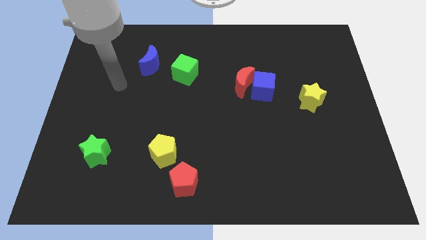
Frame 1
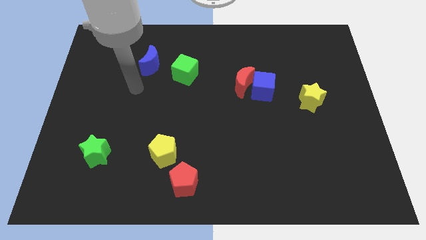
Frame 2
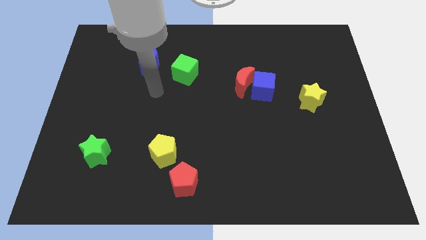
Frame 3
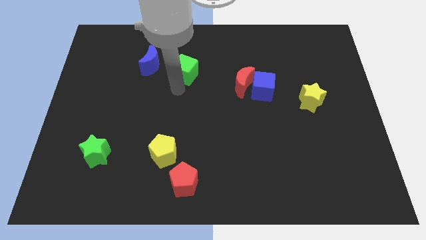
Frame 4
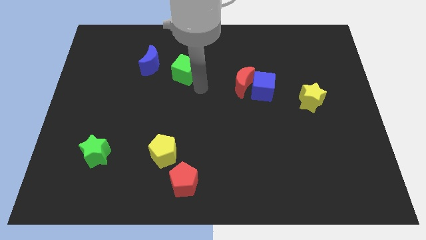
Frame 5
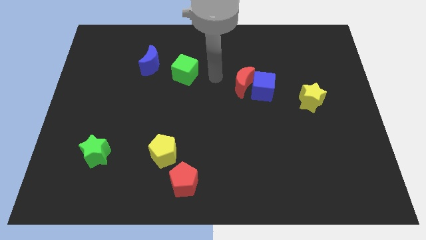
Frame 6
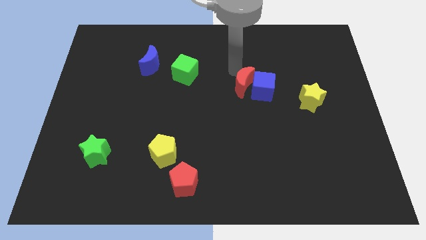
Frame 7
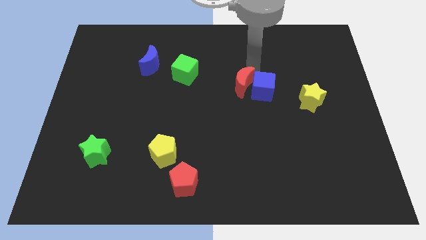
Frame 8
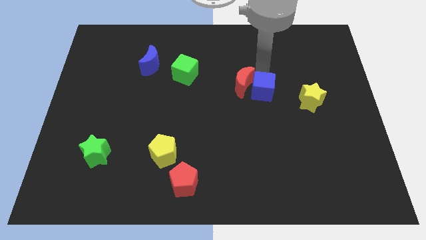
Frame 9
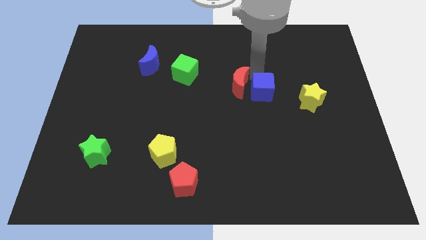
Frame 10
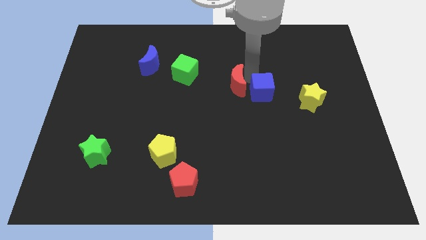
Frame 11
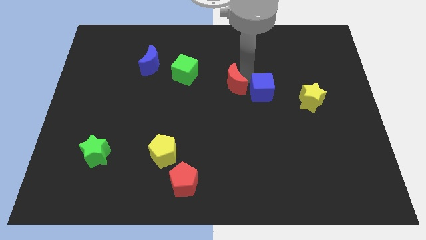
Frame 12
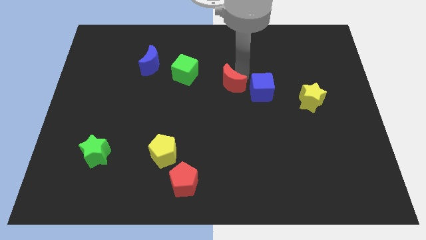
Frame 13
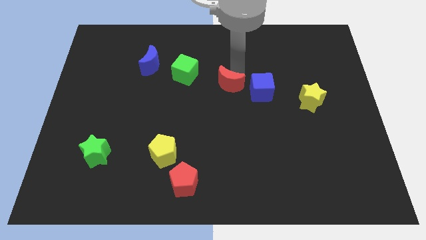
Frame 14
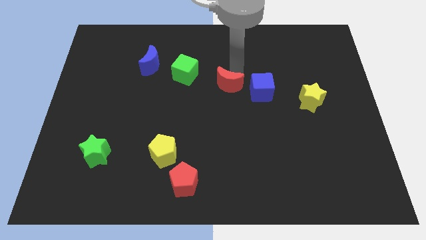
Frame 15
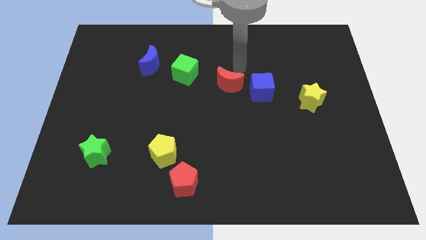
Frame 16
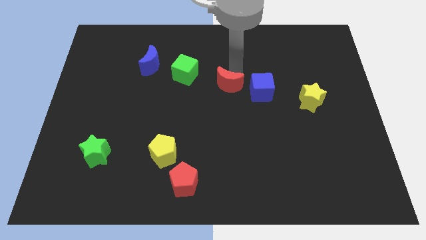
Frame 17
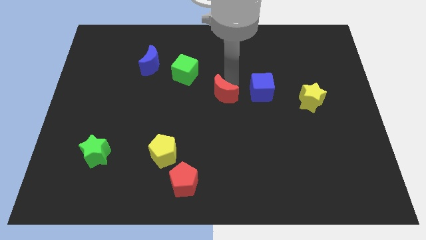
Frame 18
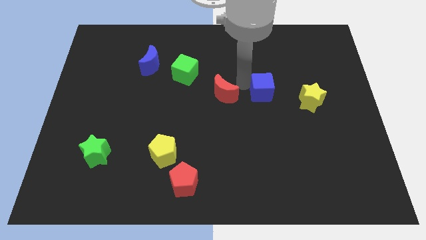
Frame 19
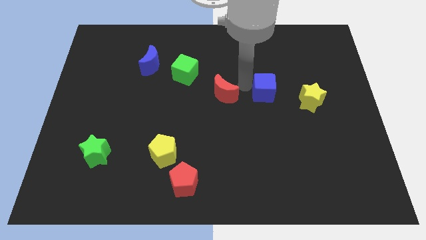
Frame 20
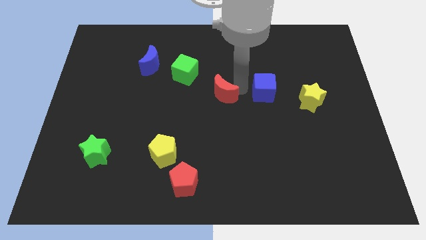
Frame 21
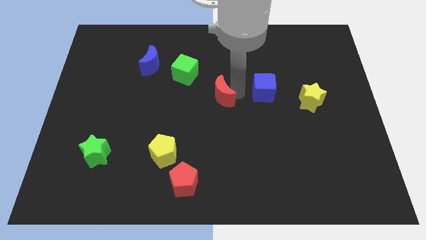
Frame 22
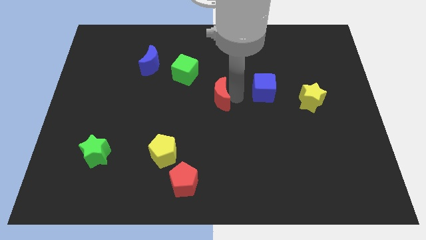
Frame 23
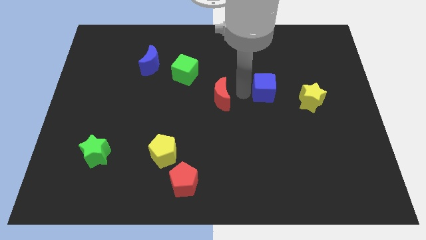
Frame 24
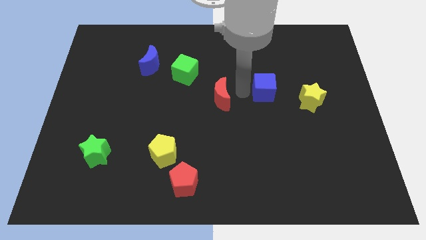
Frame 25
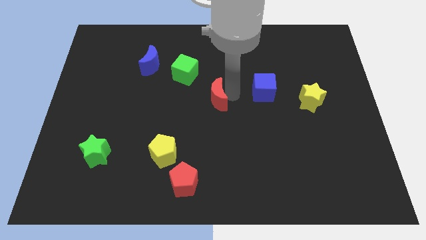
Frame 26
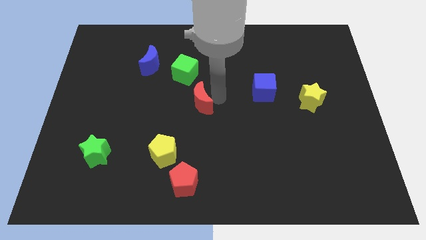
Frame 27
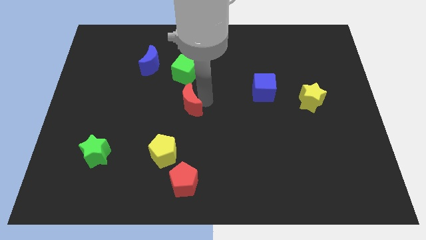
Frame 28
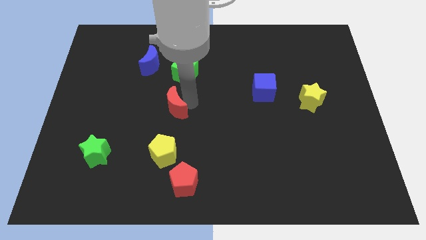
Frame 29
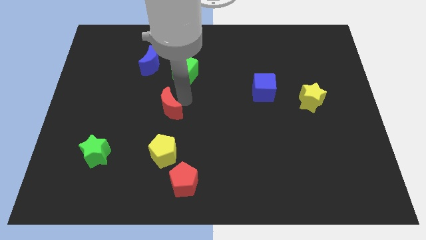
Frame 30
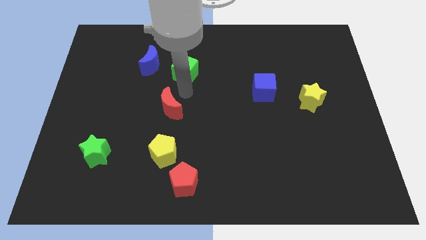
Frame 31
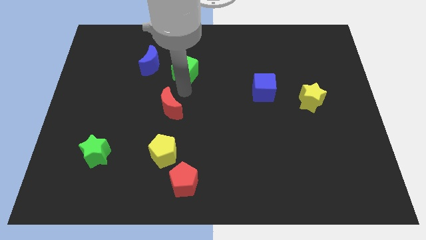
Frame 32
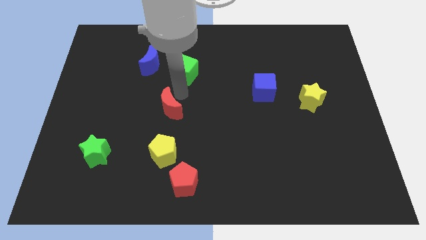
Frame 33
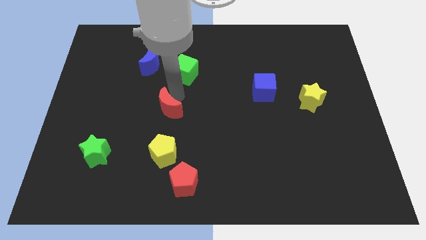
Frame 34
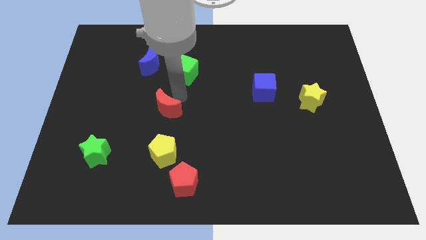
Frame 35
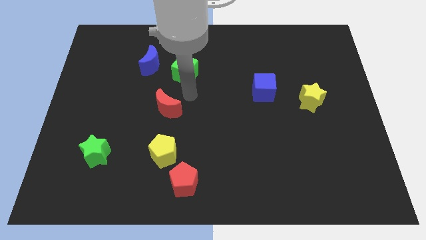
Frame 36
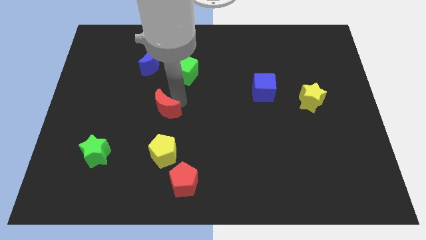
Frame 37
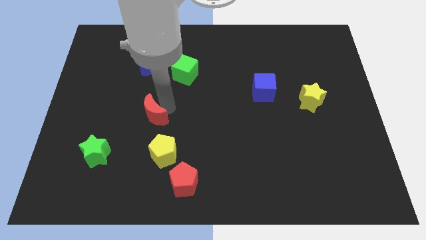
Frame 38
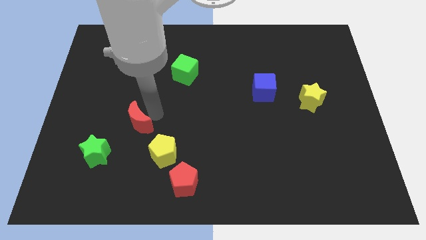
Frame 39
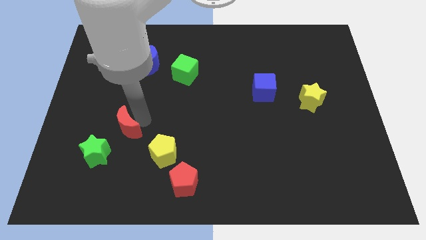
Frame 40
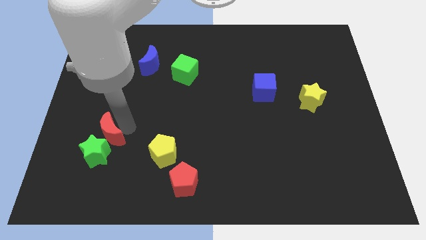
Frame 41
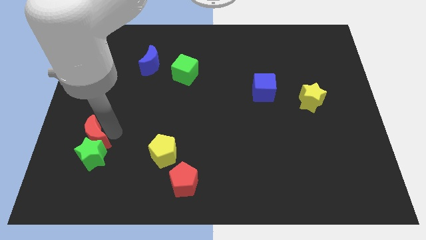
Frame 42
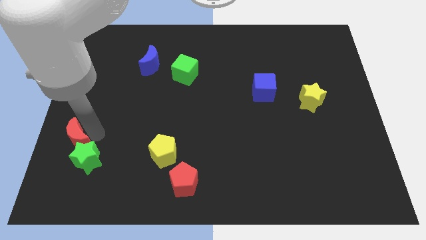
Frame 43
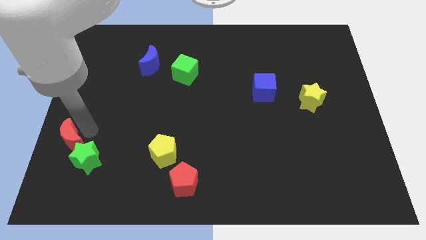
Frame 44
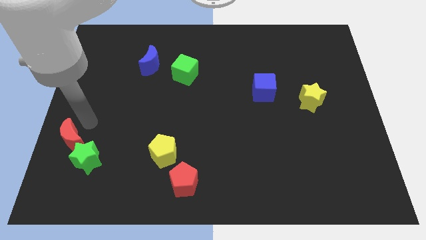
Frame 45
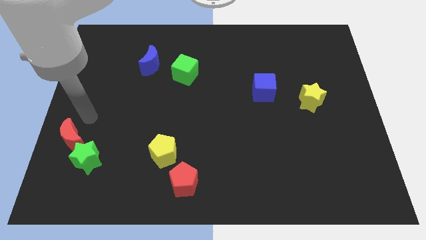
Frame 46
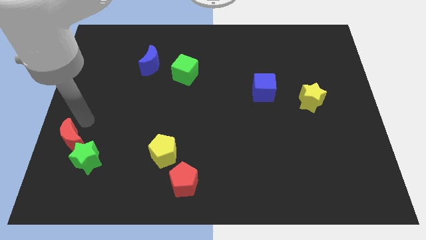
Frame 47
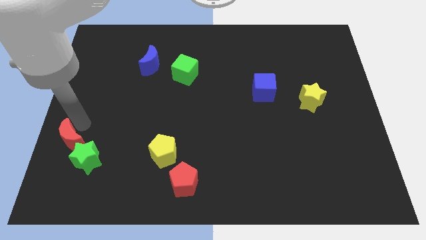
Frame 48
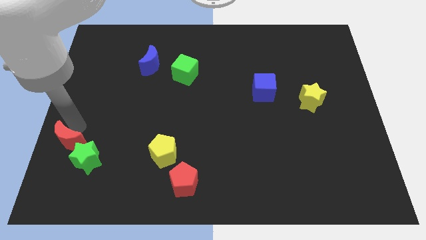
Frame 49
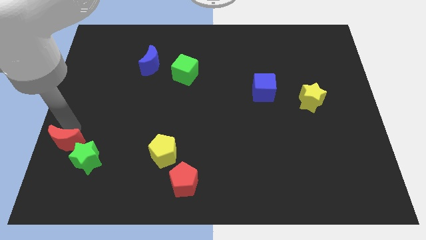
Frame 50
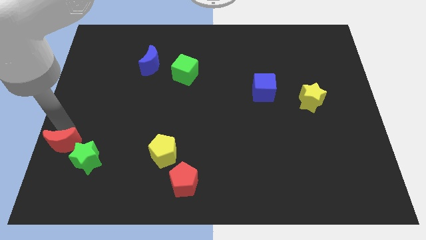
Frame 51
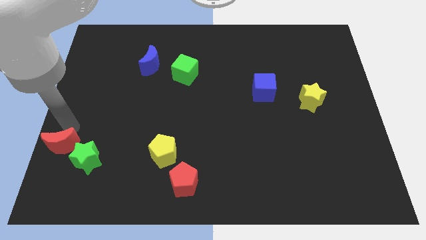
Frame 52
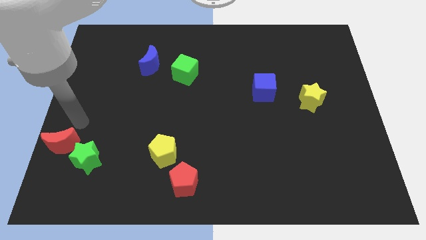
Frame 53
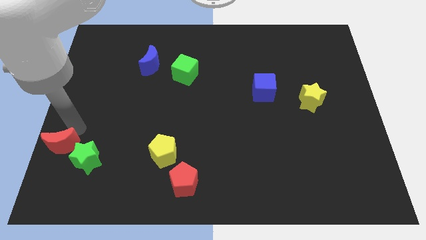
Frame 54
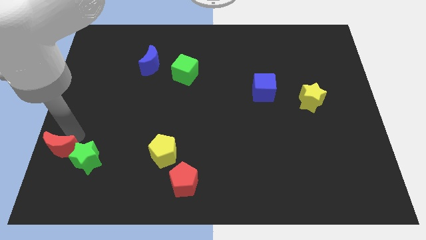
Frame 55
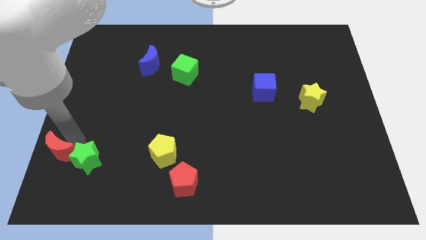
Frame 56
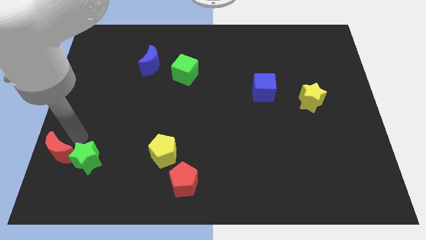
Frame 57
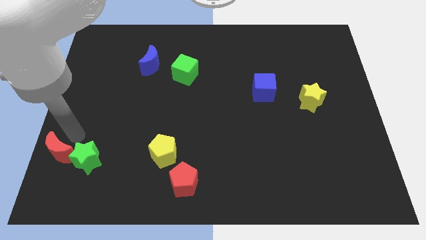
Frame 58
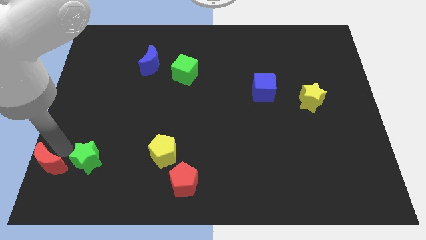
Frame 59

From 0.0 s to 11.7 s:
slide the red moon to the bottom left of the board

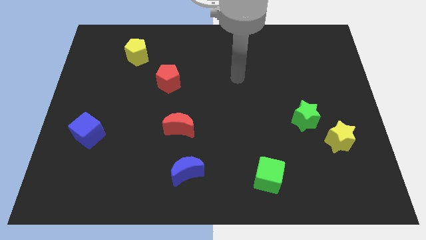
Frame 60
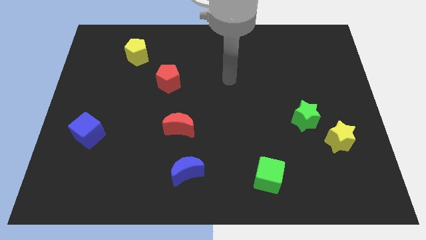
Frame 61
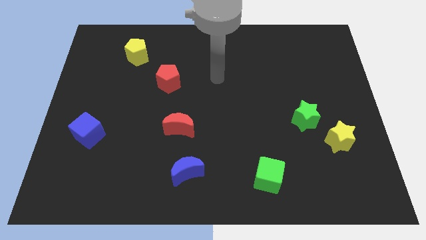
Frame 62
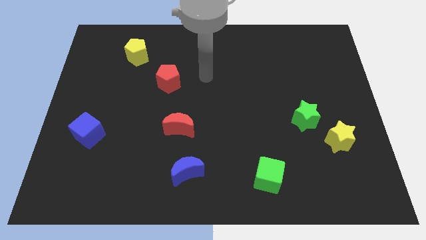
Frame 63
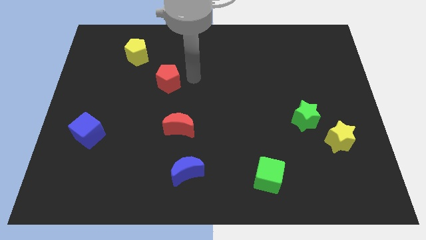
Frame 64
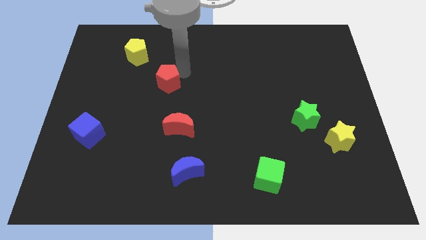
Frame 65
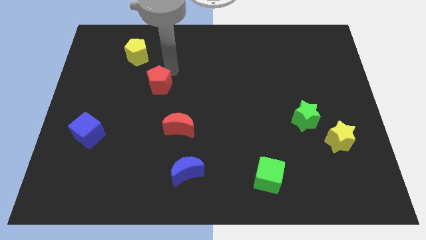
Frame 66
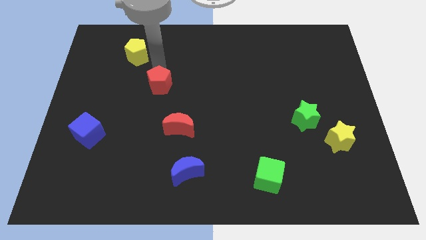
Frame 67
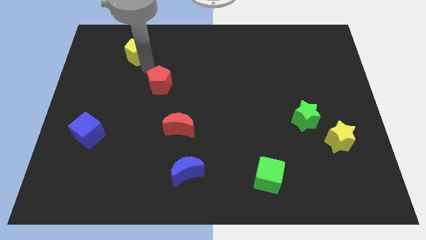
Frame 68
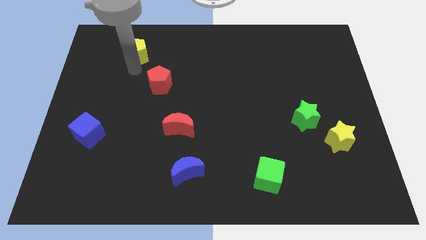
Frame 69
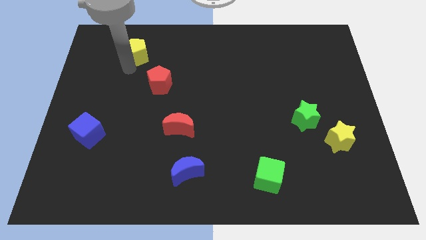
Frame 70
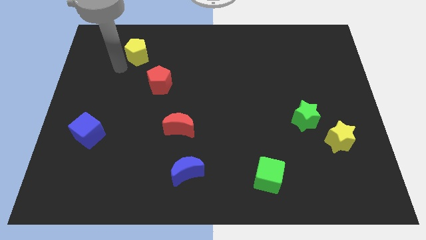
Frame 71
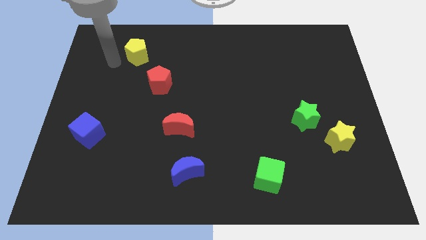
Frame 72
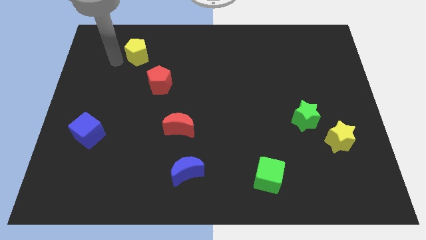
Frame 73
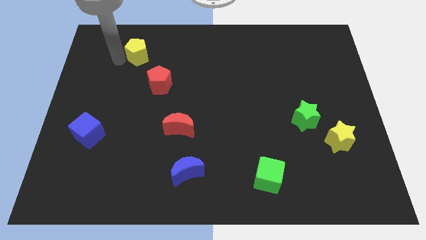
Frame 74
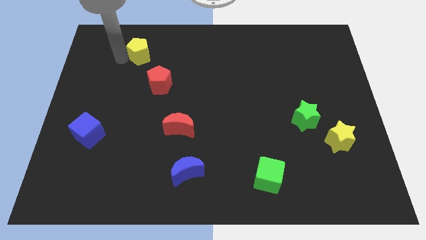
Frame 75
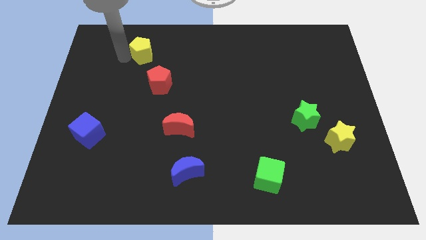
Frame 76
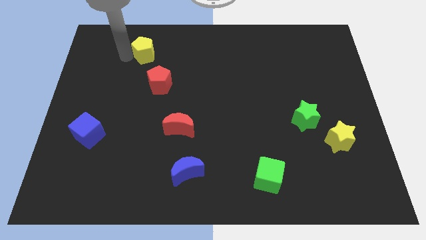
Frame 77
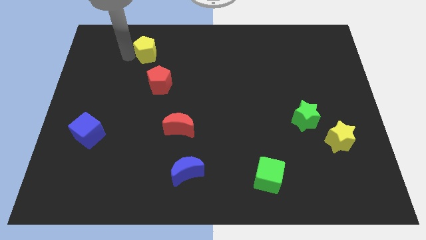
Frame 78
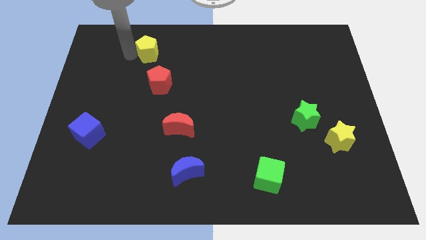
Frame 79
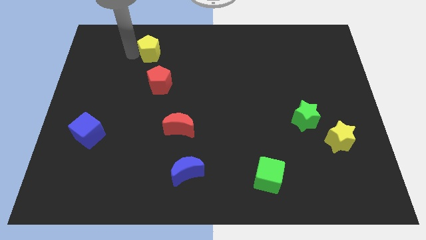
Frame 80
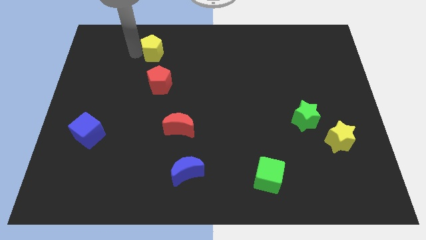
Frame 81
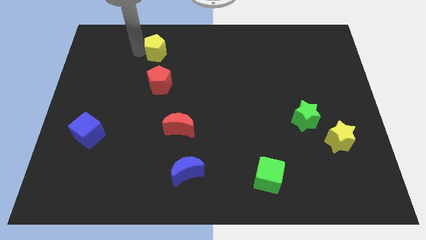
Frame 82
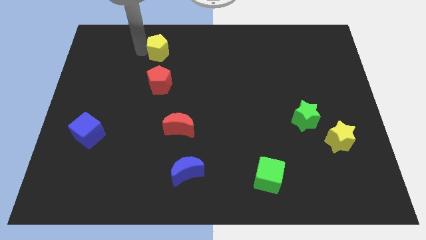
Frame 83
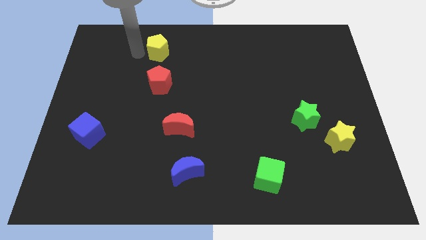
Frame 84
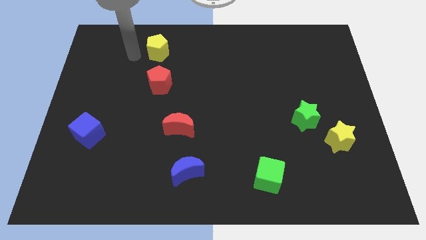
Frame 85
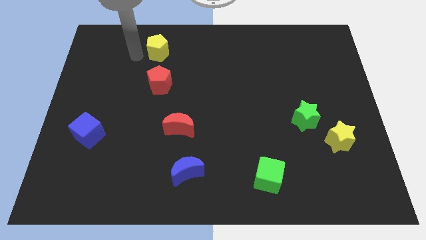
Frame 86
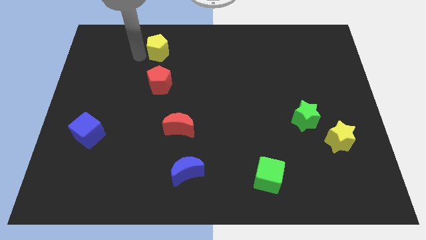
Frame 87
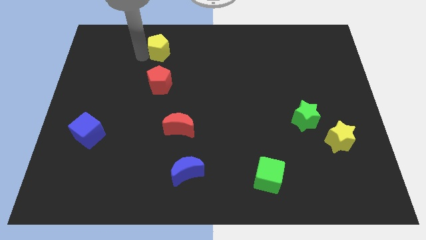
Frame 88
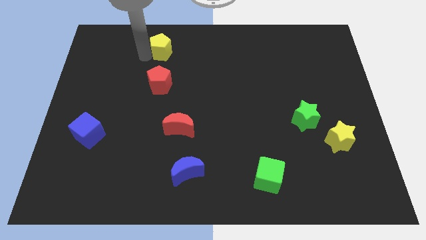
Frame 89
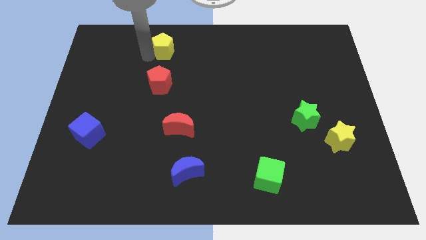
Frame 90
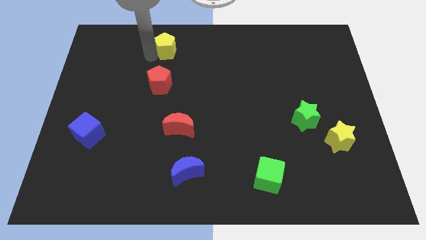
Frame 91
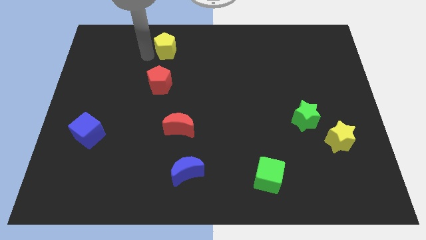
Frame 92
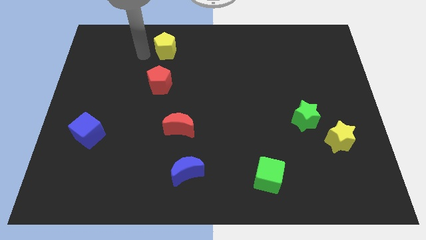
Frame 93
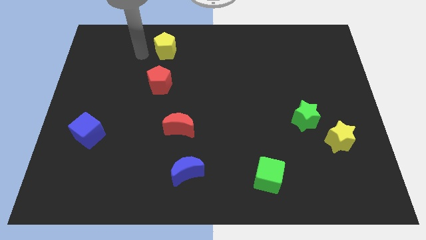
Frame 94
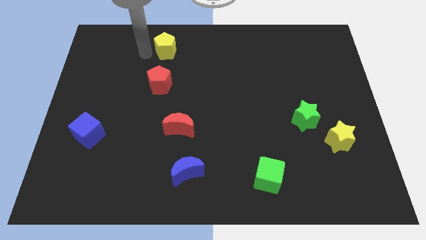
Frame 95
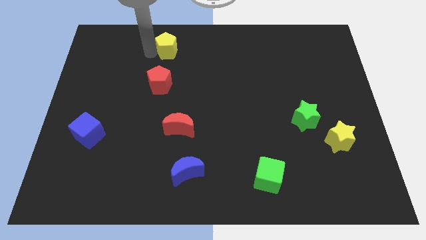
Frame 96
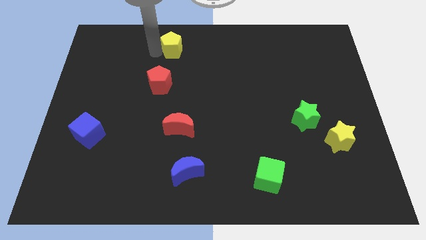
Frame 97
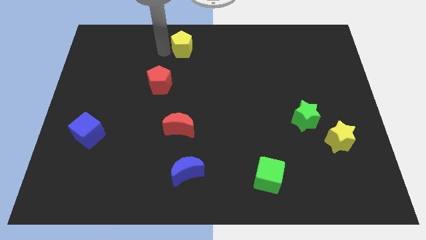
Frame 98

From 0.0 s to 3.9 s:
put the yellow pentagon to the towards your base
